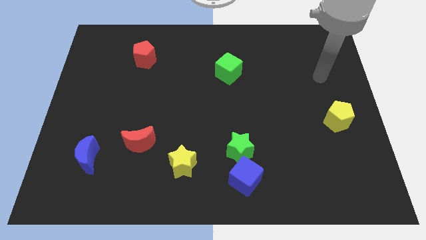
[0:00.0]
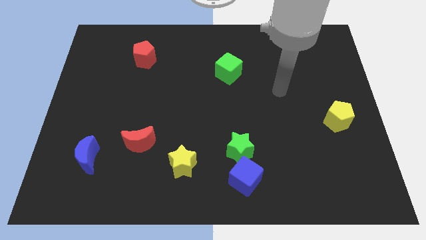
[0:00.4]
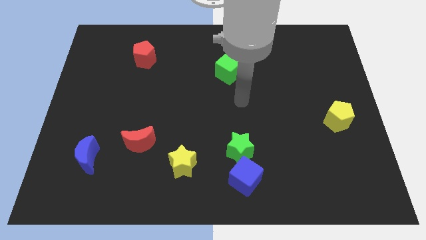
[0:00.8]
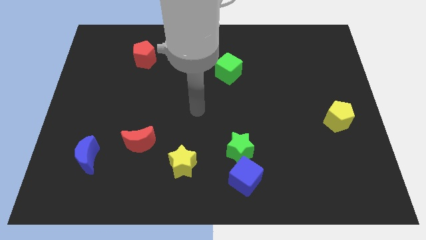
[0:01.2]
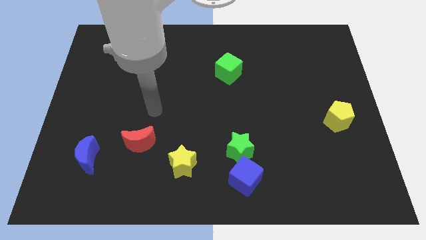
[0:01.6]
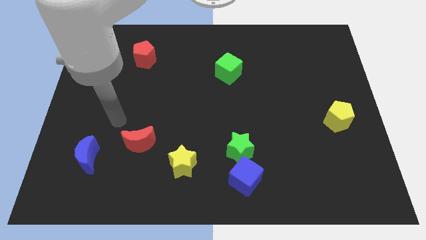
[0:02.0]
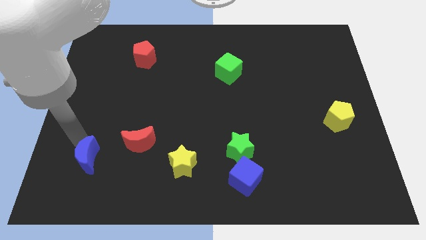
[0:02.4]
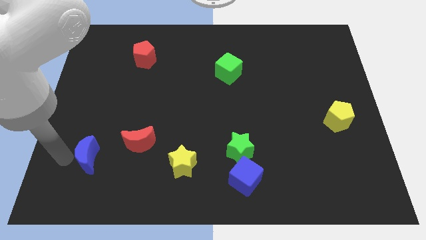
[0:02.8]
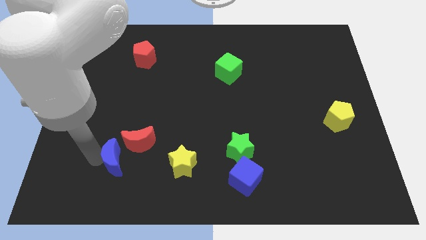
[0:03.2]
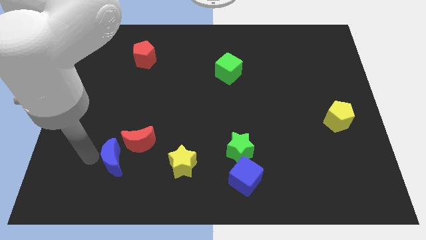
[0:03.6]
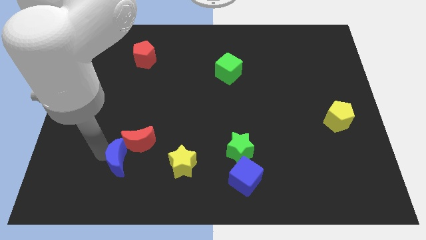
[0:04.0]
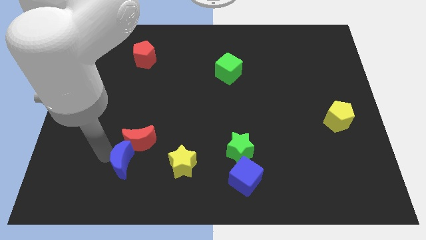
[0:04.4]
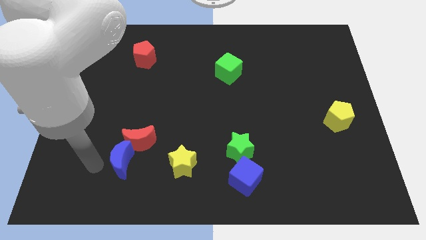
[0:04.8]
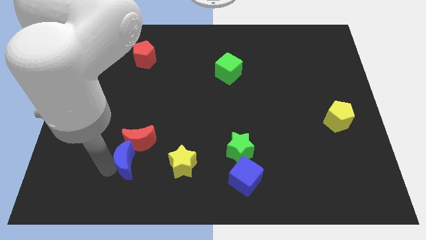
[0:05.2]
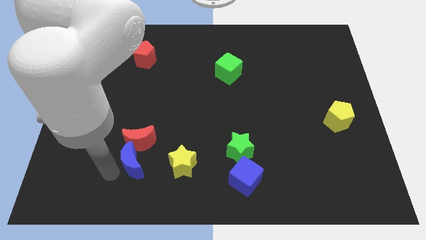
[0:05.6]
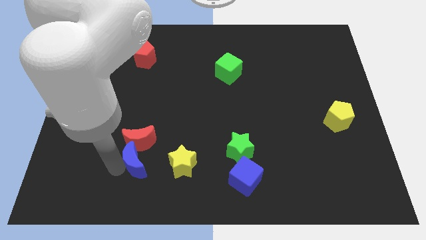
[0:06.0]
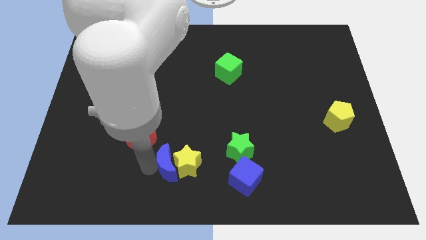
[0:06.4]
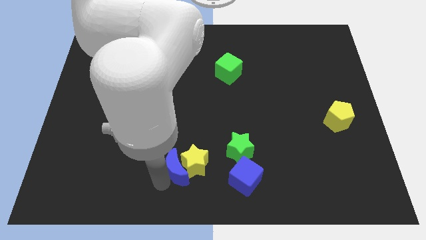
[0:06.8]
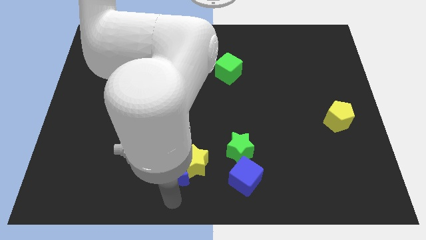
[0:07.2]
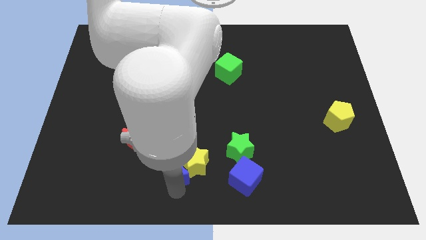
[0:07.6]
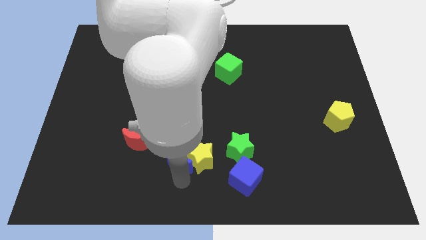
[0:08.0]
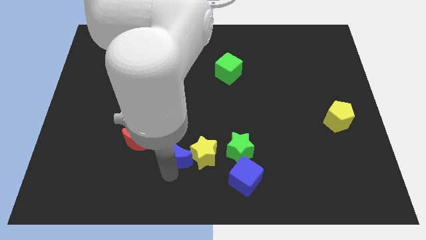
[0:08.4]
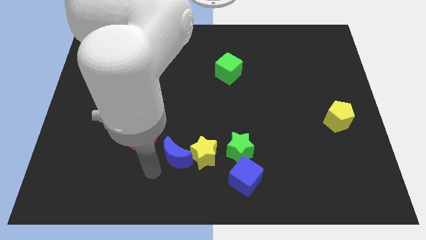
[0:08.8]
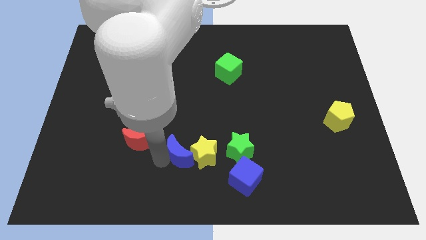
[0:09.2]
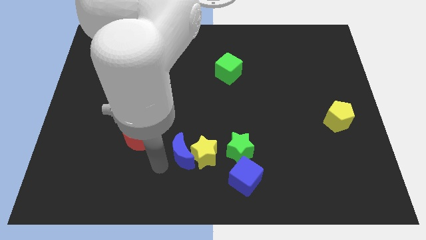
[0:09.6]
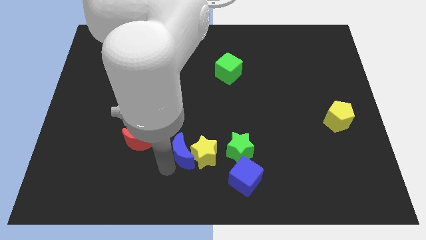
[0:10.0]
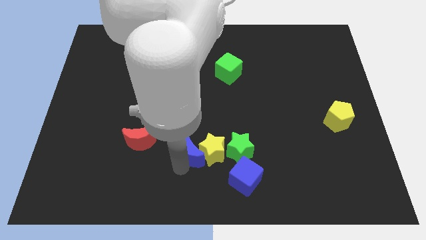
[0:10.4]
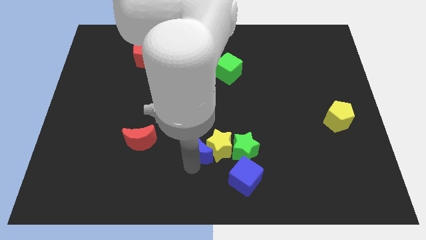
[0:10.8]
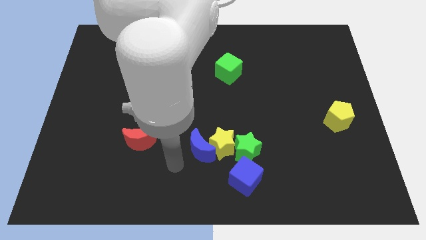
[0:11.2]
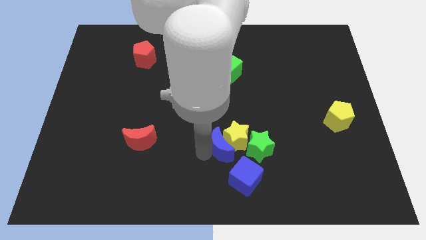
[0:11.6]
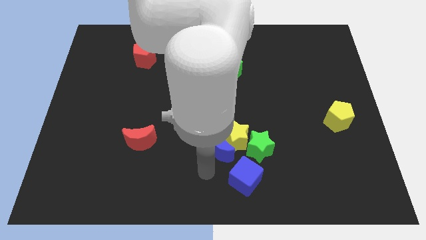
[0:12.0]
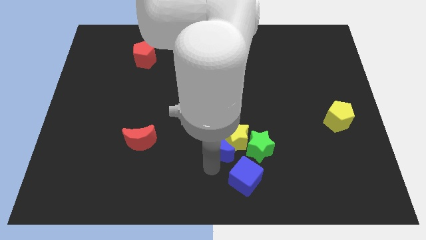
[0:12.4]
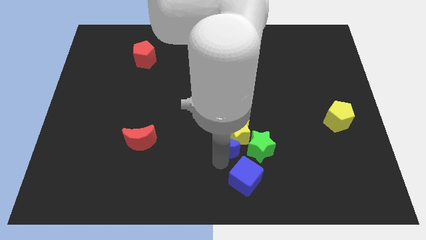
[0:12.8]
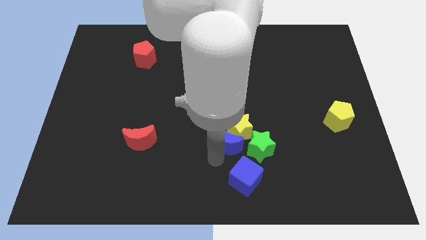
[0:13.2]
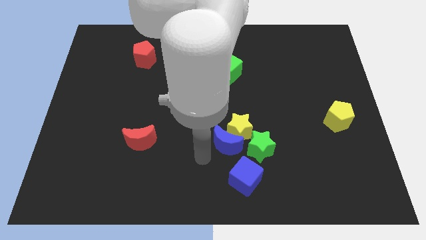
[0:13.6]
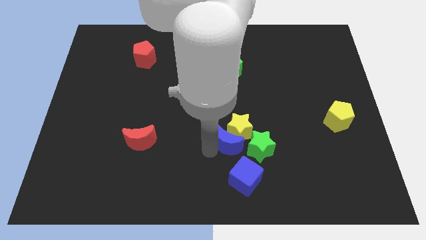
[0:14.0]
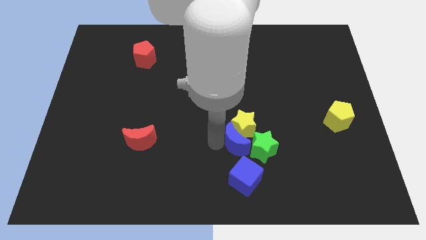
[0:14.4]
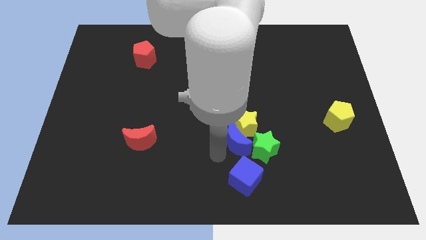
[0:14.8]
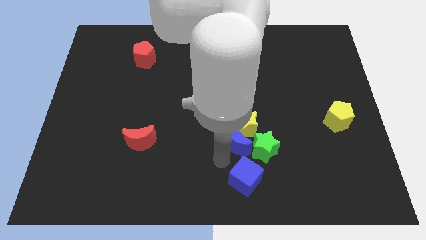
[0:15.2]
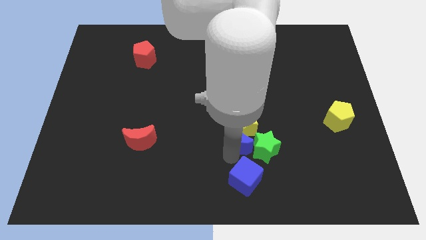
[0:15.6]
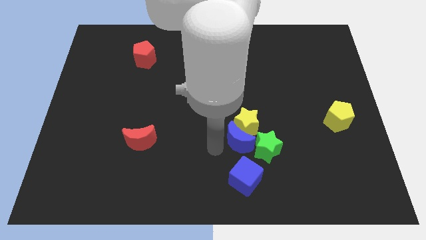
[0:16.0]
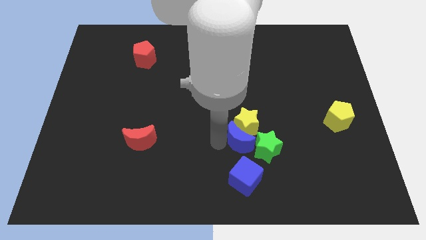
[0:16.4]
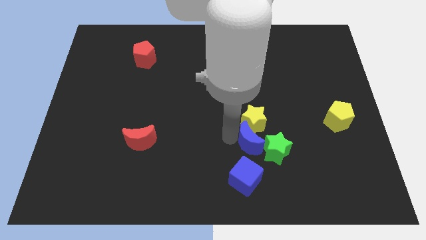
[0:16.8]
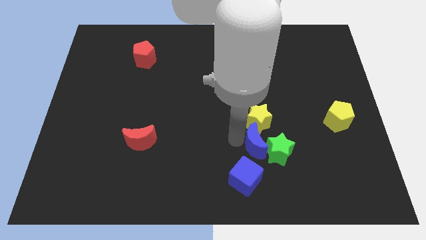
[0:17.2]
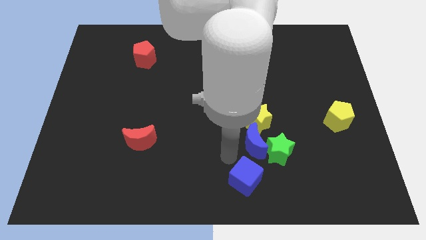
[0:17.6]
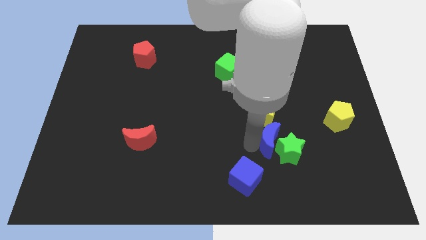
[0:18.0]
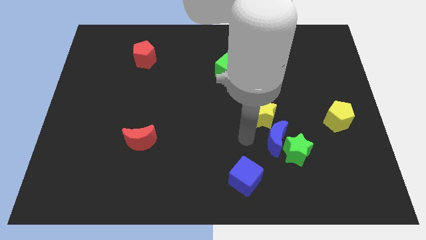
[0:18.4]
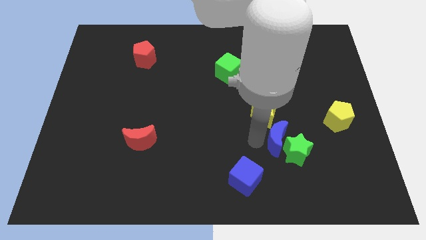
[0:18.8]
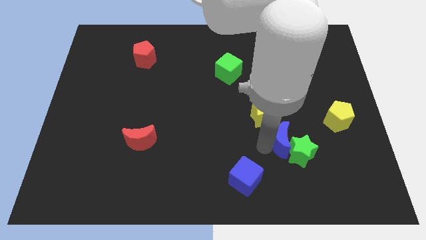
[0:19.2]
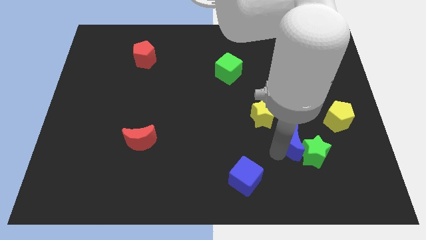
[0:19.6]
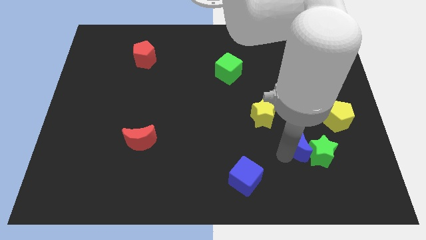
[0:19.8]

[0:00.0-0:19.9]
slide the blue moon diagonally down and to the left of the yellow pentagon

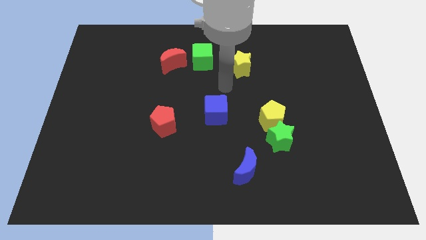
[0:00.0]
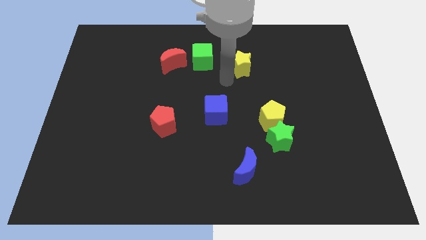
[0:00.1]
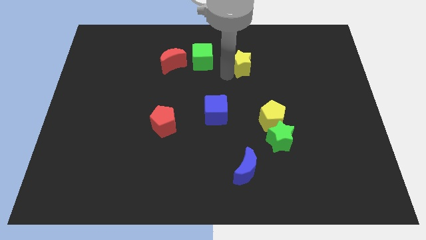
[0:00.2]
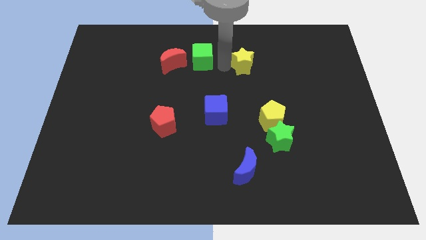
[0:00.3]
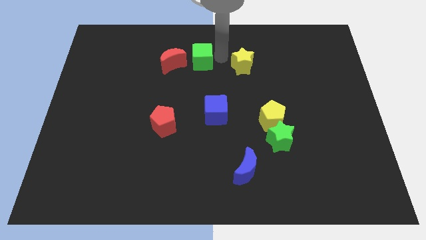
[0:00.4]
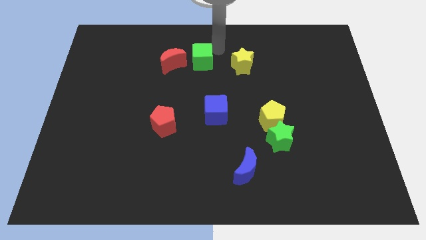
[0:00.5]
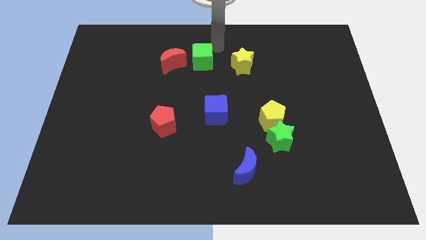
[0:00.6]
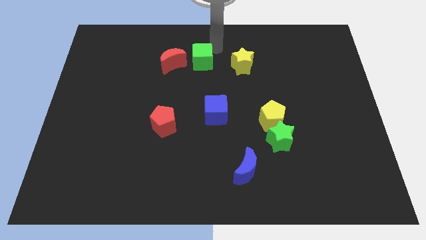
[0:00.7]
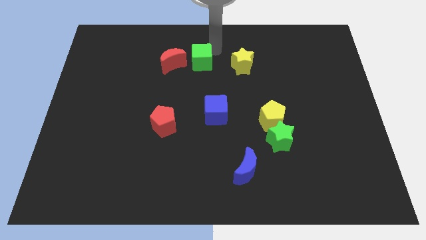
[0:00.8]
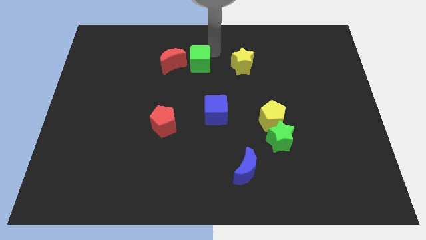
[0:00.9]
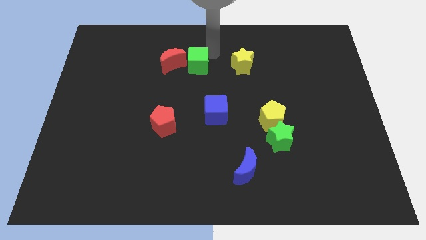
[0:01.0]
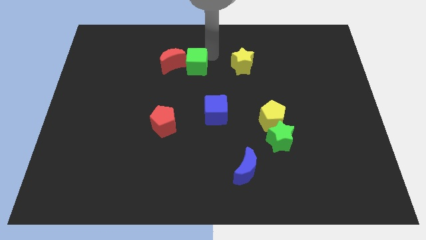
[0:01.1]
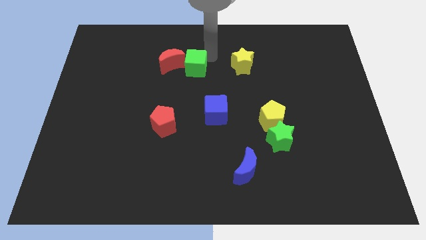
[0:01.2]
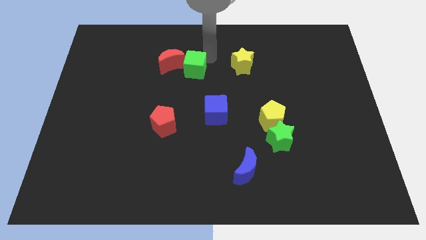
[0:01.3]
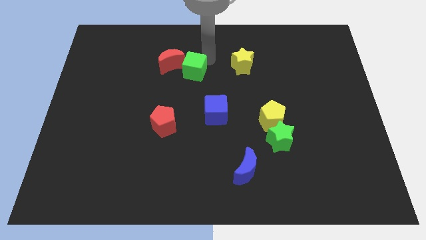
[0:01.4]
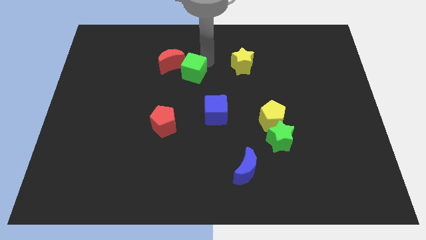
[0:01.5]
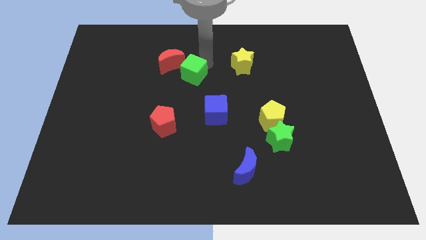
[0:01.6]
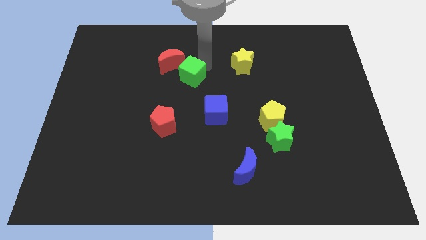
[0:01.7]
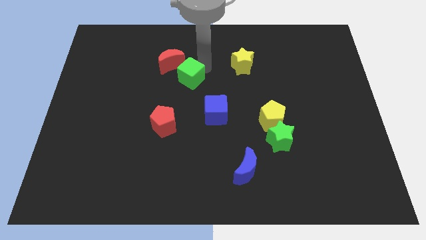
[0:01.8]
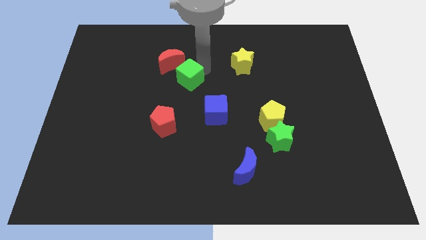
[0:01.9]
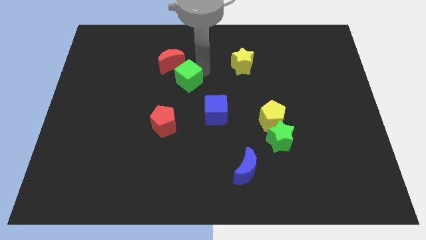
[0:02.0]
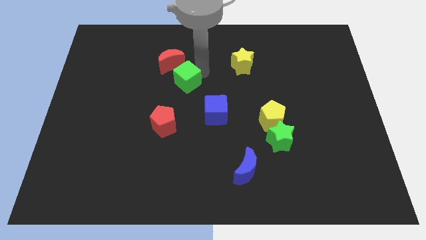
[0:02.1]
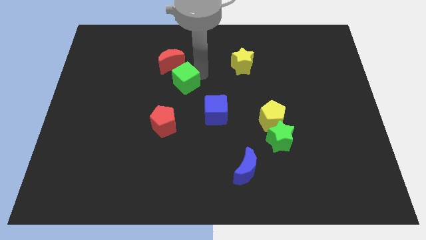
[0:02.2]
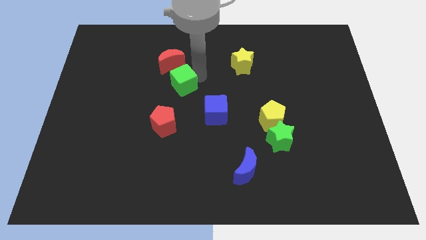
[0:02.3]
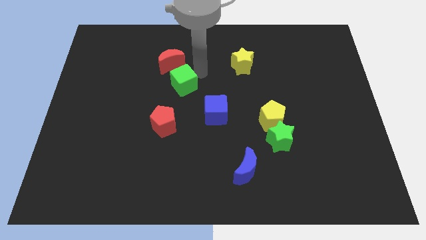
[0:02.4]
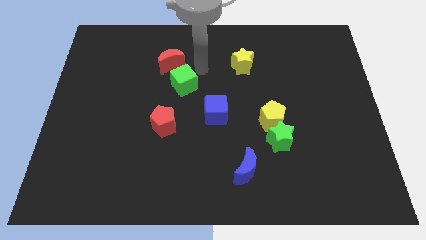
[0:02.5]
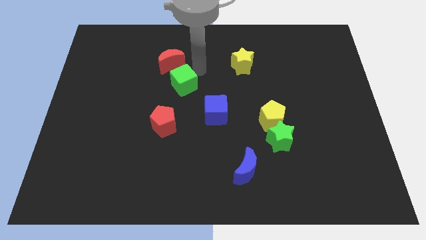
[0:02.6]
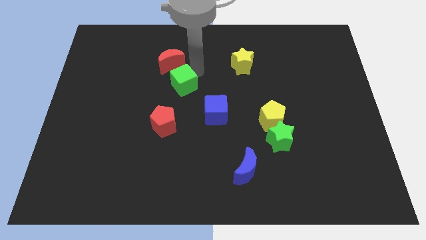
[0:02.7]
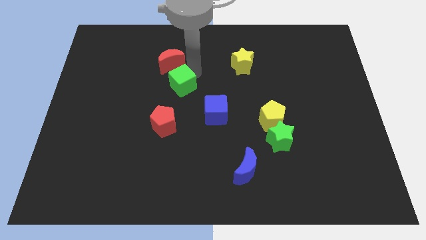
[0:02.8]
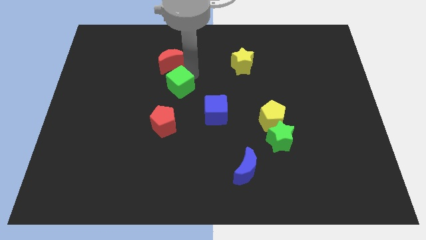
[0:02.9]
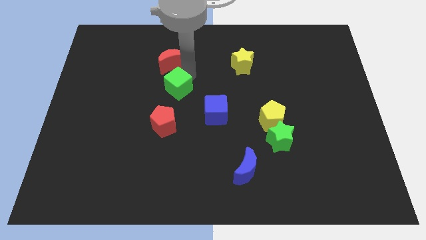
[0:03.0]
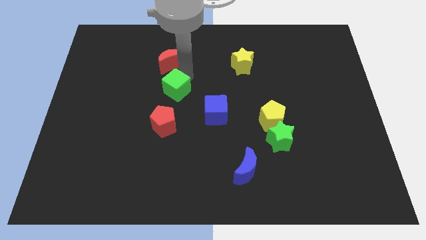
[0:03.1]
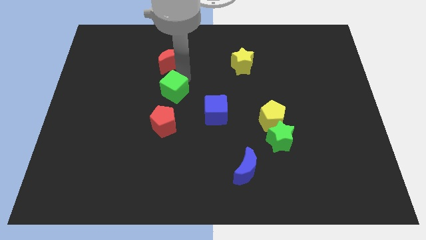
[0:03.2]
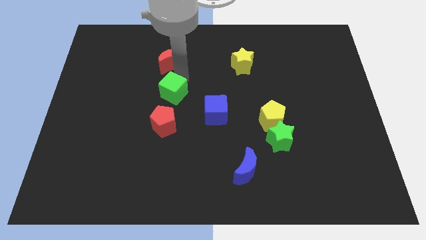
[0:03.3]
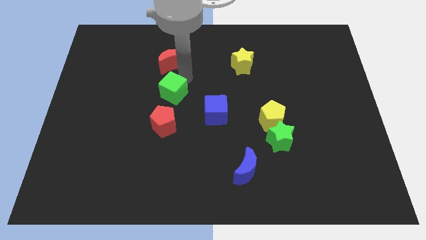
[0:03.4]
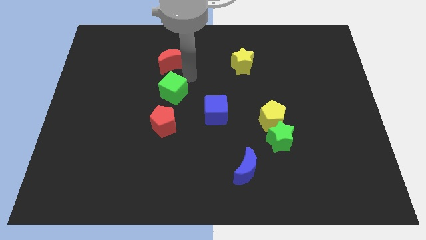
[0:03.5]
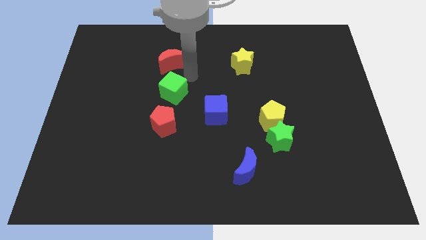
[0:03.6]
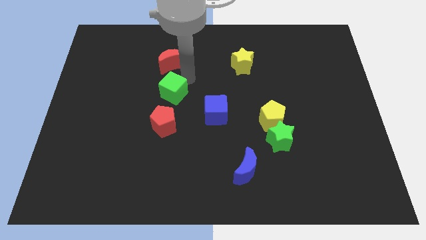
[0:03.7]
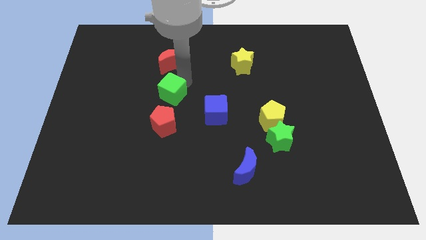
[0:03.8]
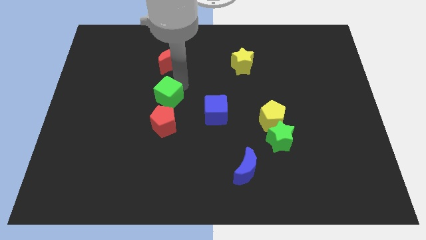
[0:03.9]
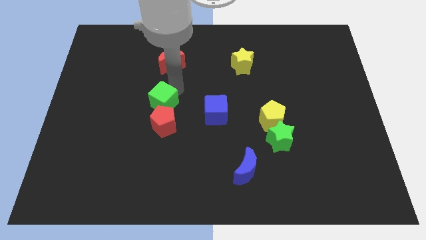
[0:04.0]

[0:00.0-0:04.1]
slide the green cube to the left side of the blue cube
